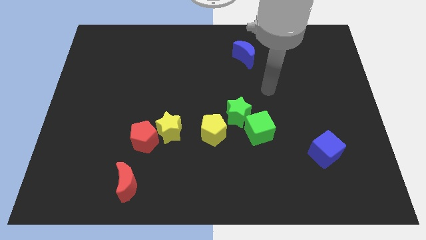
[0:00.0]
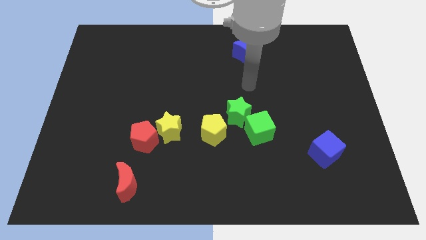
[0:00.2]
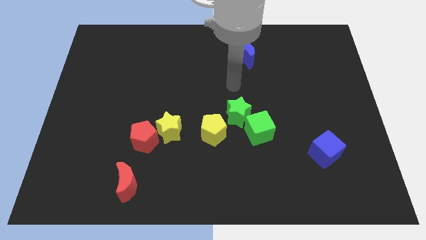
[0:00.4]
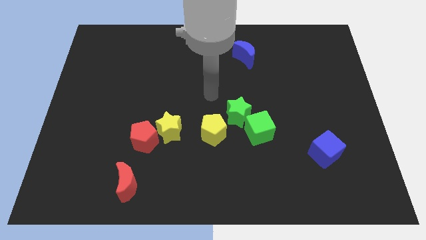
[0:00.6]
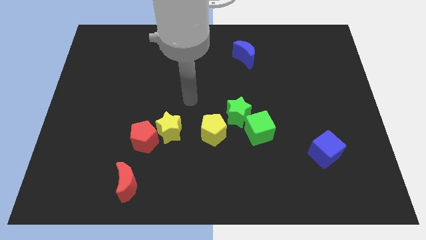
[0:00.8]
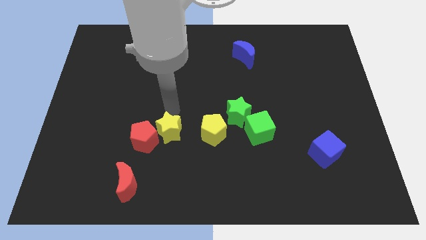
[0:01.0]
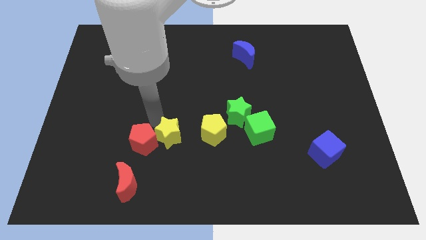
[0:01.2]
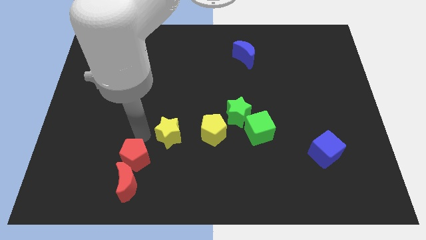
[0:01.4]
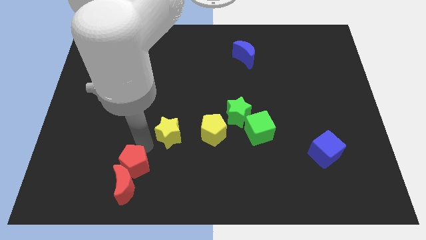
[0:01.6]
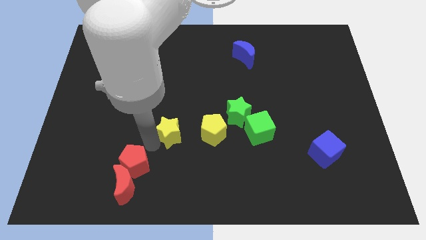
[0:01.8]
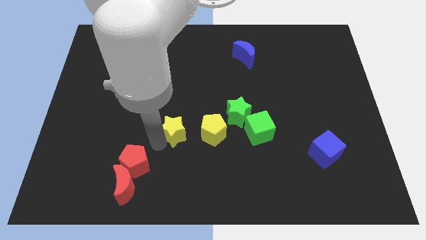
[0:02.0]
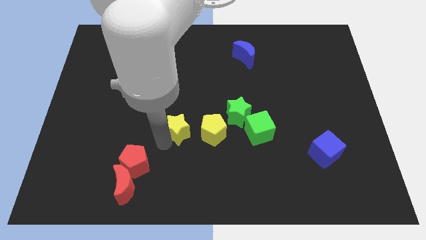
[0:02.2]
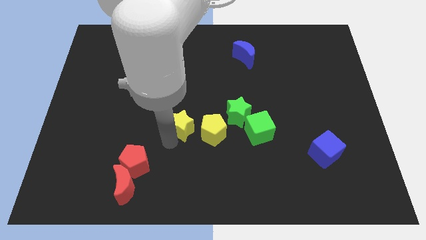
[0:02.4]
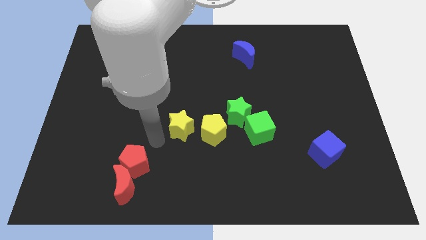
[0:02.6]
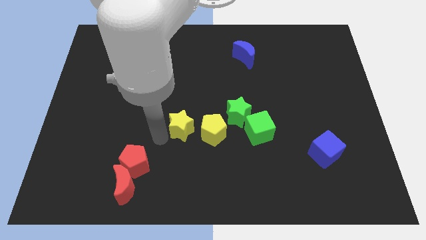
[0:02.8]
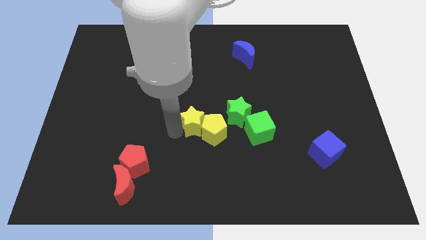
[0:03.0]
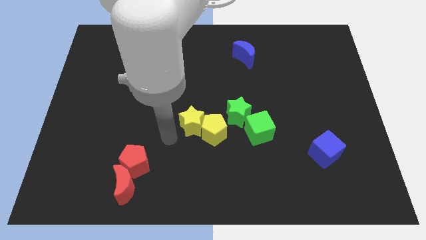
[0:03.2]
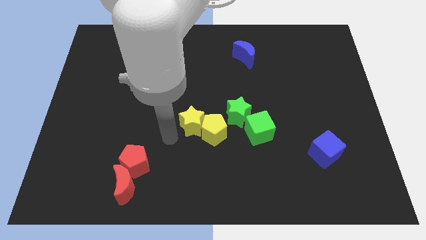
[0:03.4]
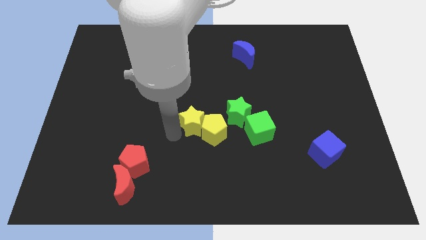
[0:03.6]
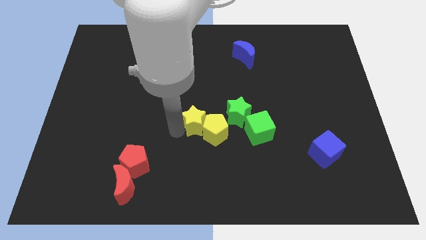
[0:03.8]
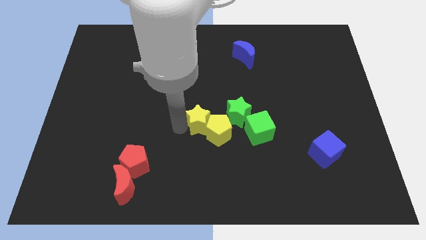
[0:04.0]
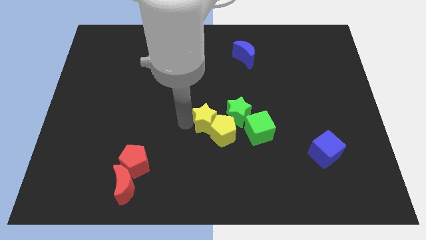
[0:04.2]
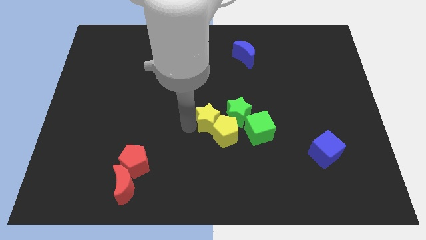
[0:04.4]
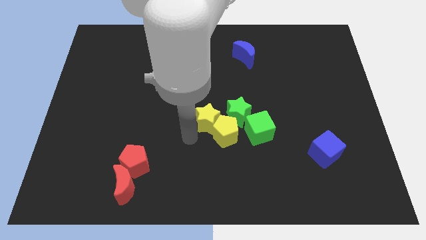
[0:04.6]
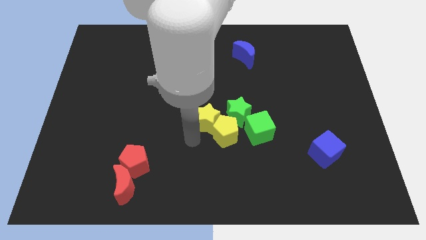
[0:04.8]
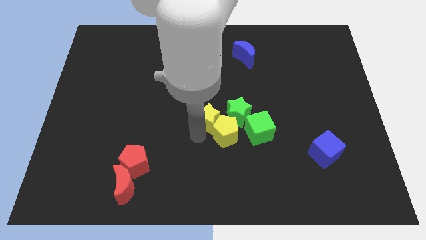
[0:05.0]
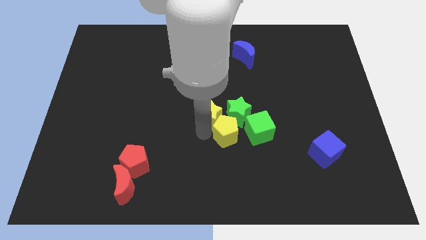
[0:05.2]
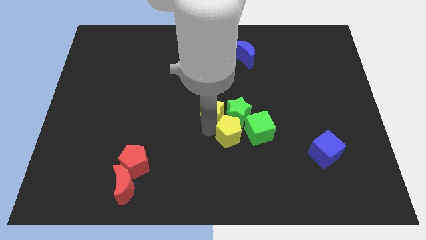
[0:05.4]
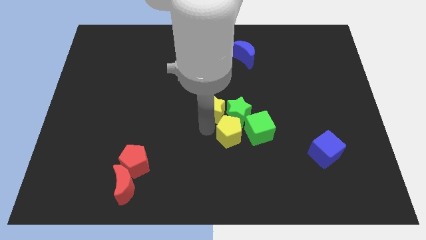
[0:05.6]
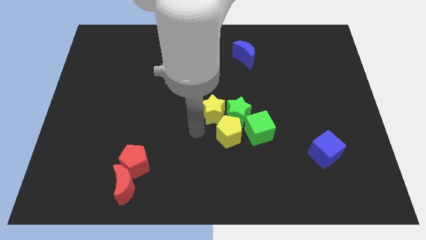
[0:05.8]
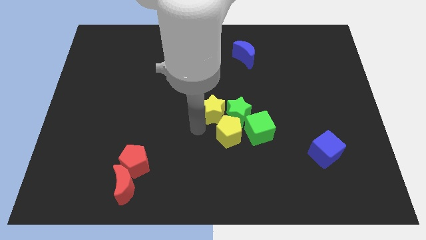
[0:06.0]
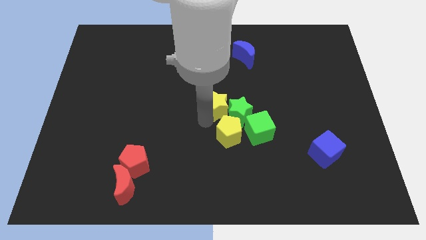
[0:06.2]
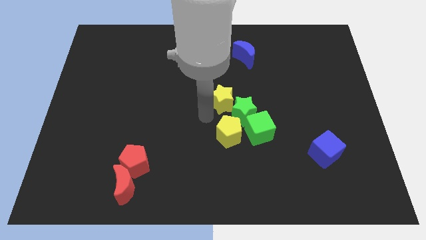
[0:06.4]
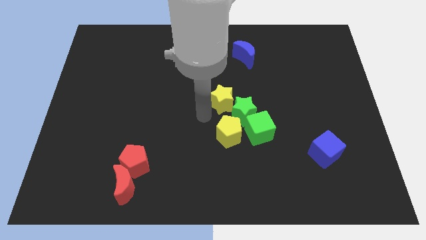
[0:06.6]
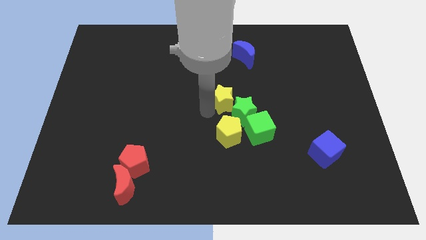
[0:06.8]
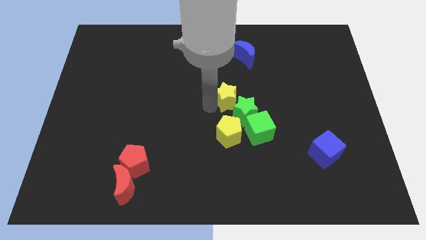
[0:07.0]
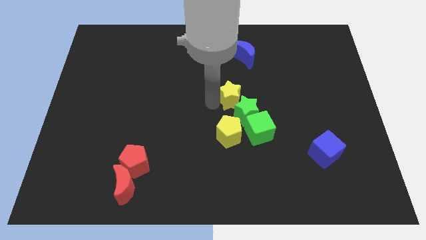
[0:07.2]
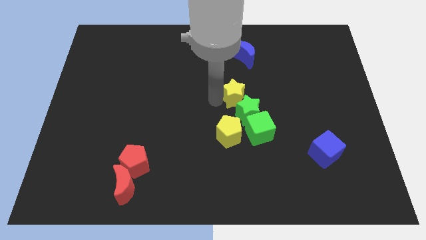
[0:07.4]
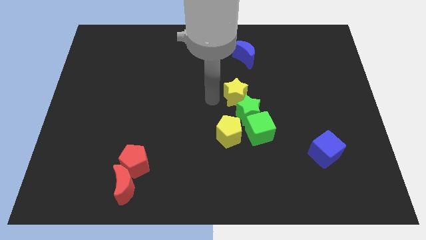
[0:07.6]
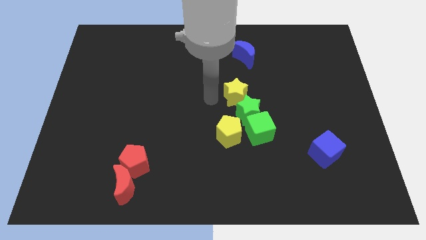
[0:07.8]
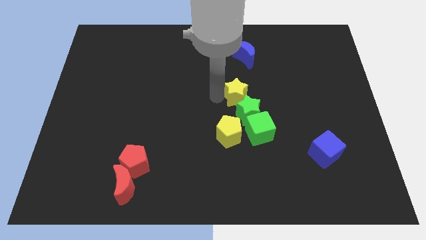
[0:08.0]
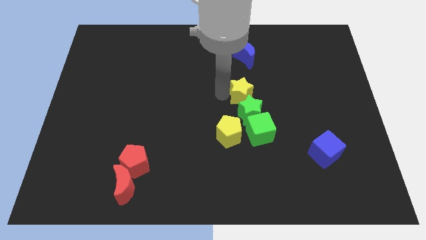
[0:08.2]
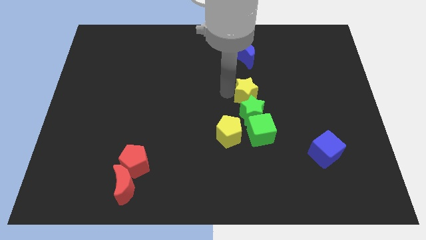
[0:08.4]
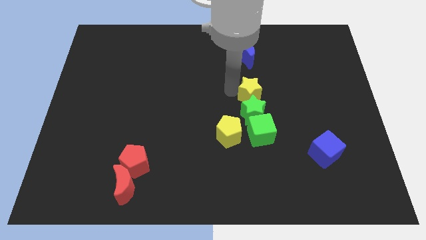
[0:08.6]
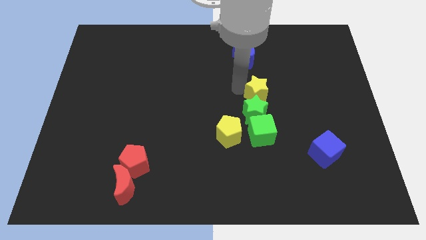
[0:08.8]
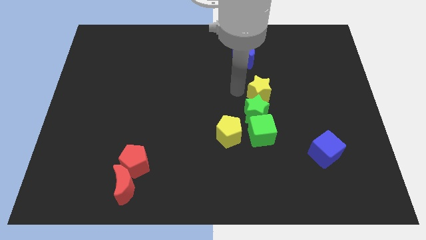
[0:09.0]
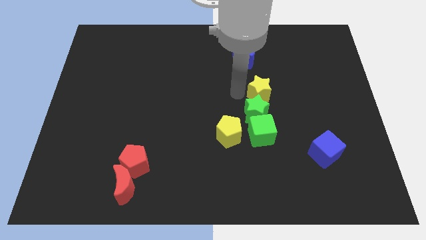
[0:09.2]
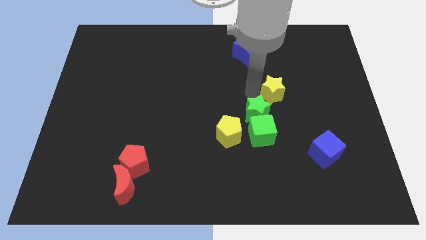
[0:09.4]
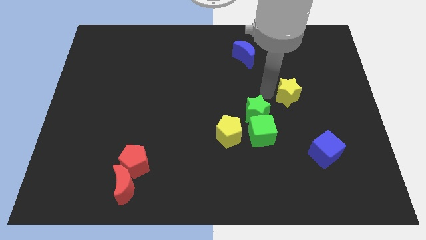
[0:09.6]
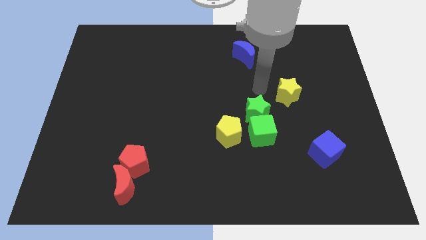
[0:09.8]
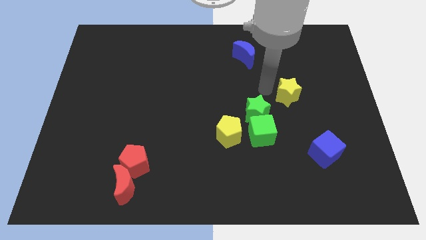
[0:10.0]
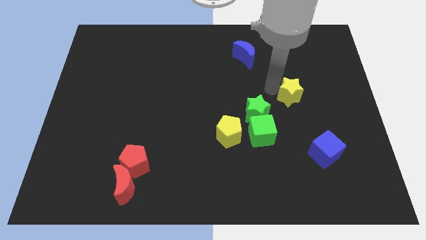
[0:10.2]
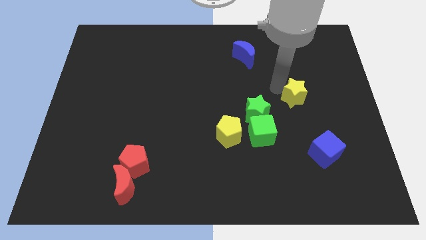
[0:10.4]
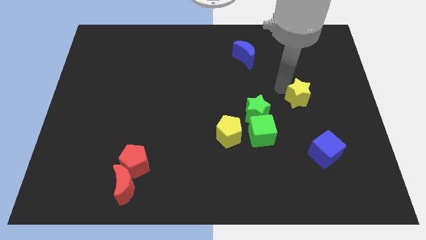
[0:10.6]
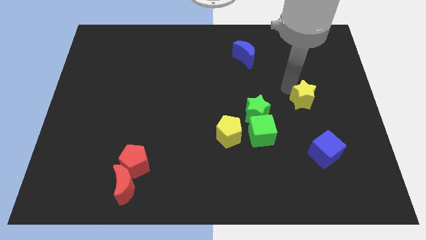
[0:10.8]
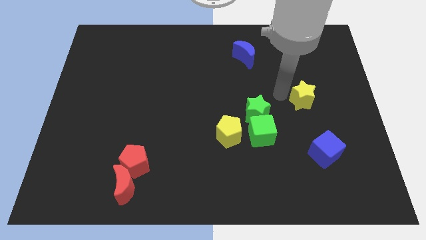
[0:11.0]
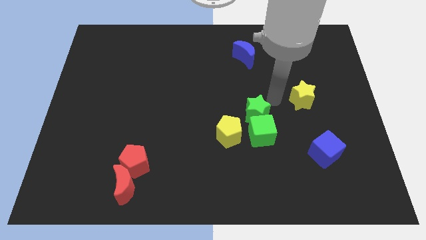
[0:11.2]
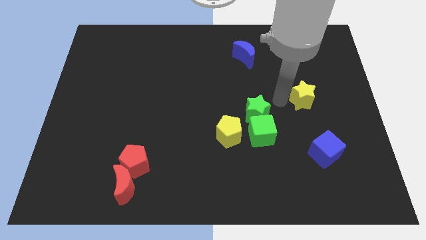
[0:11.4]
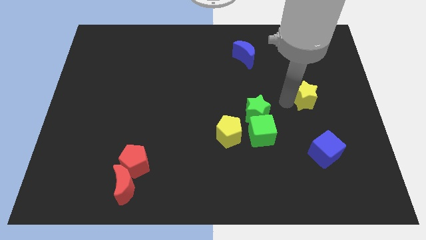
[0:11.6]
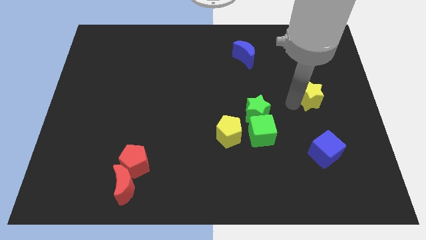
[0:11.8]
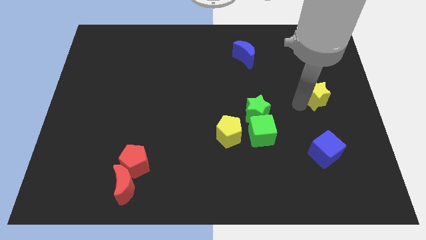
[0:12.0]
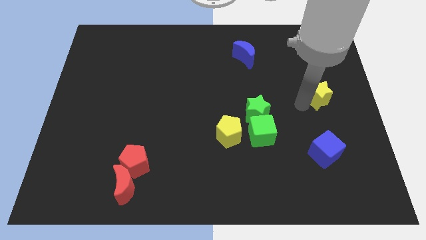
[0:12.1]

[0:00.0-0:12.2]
push the yellow star to the right side of the board
